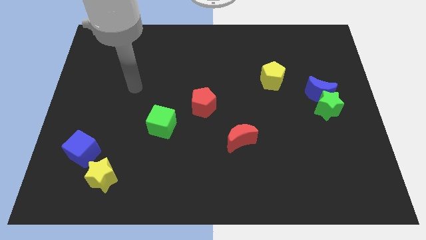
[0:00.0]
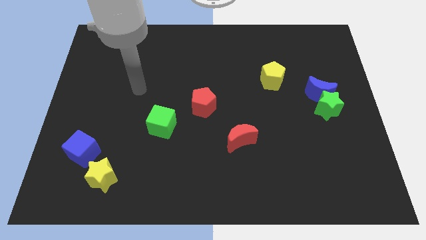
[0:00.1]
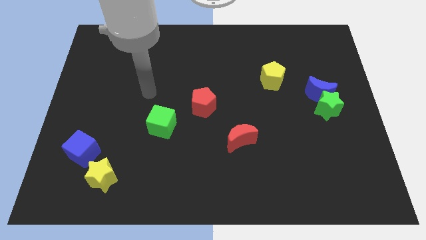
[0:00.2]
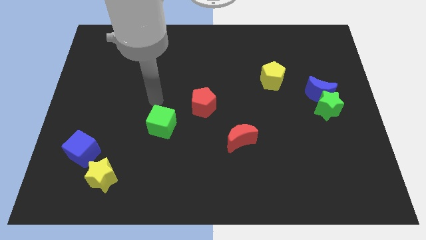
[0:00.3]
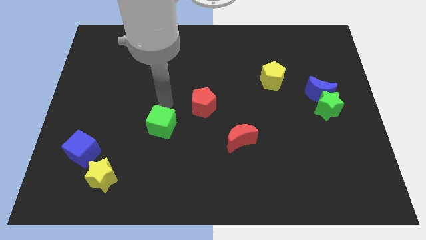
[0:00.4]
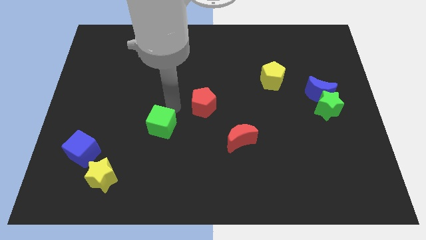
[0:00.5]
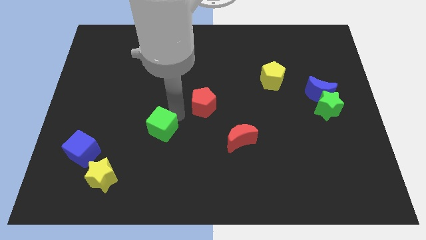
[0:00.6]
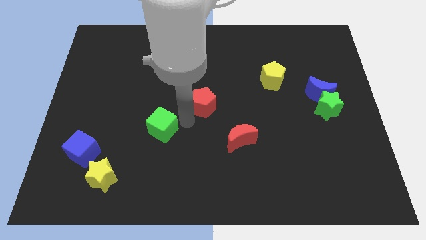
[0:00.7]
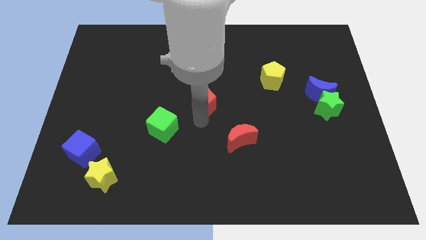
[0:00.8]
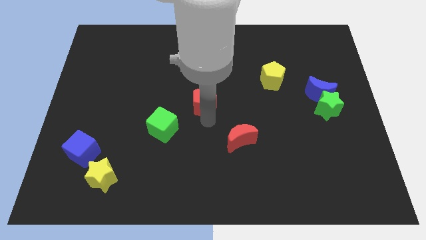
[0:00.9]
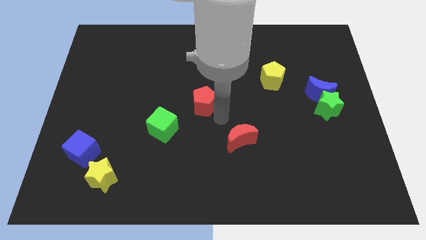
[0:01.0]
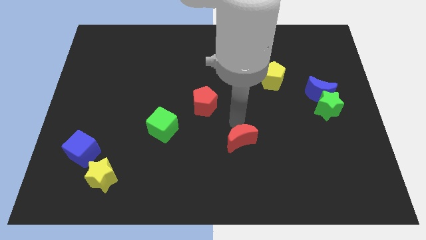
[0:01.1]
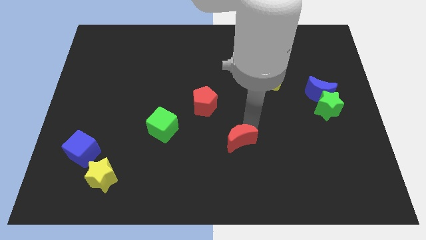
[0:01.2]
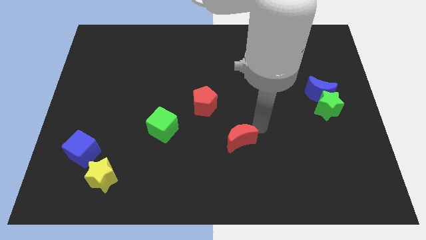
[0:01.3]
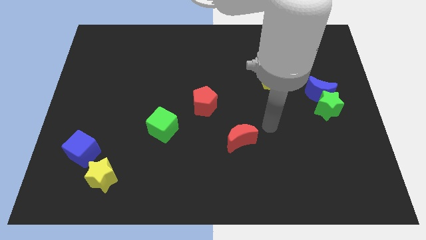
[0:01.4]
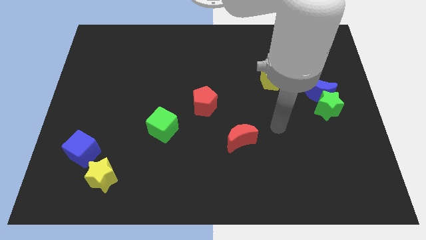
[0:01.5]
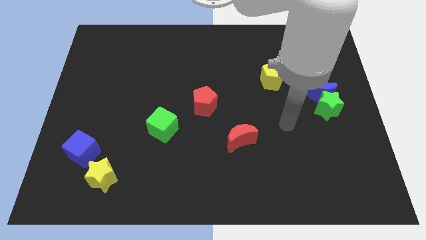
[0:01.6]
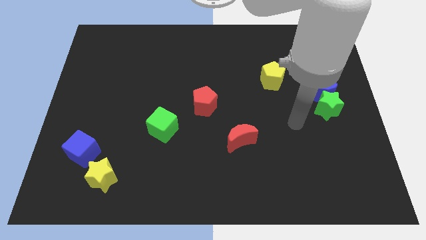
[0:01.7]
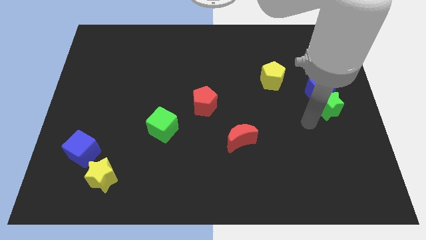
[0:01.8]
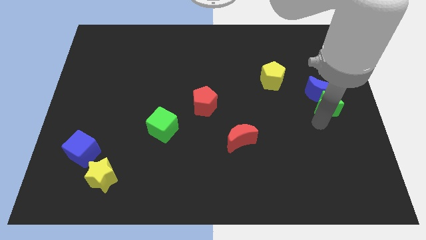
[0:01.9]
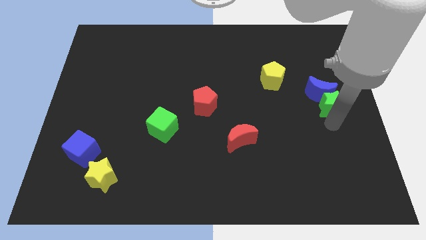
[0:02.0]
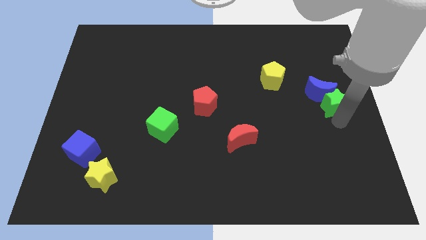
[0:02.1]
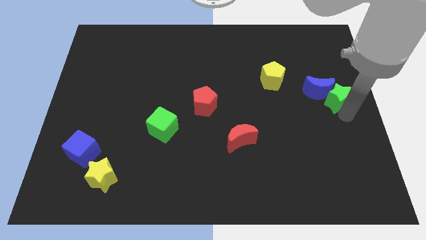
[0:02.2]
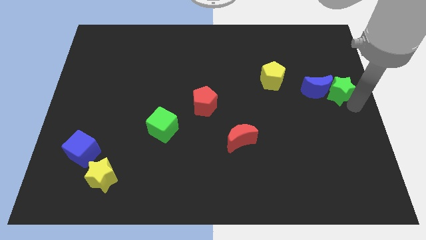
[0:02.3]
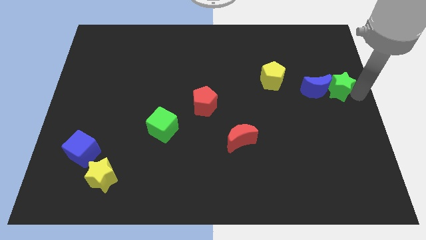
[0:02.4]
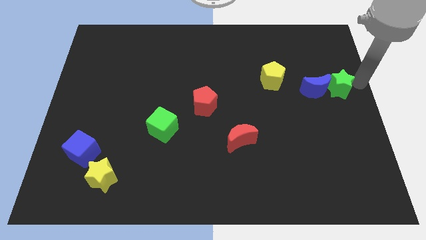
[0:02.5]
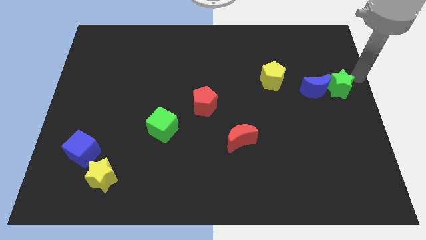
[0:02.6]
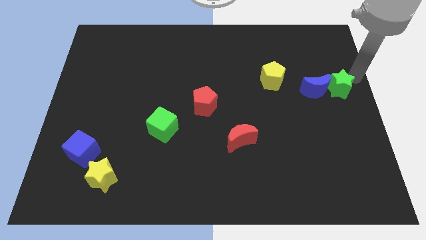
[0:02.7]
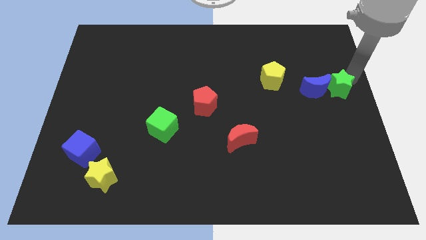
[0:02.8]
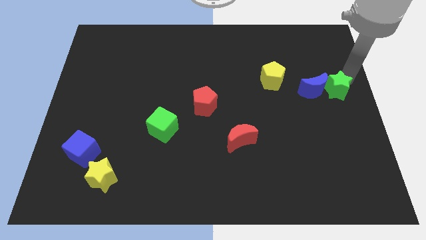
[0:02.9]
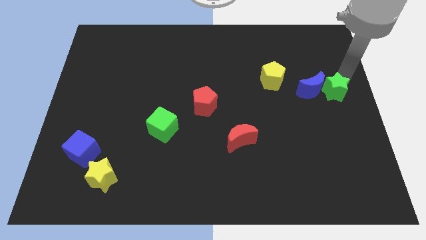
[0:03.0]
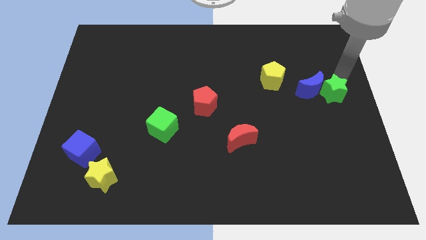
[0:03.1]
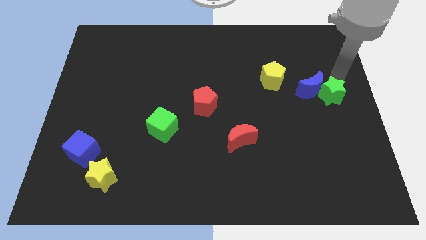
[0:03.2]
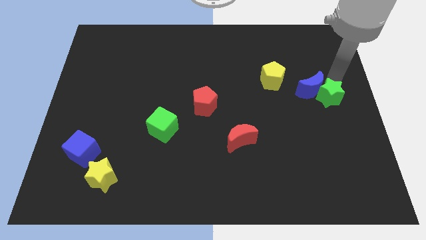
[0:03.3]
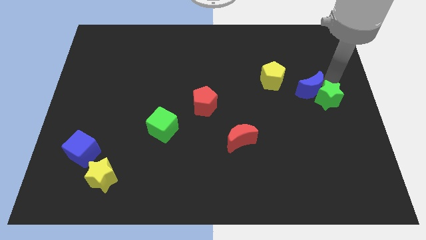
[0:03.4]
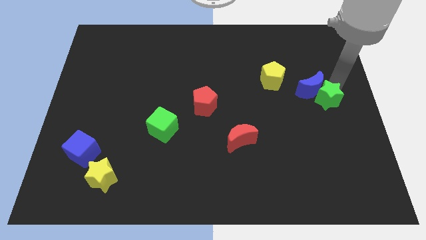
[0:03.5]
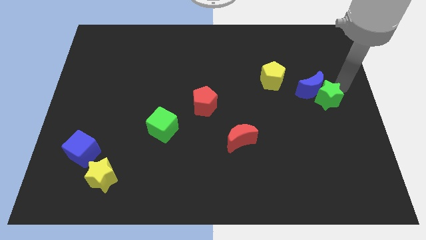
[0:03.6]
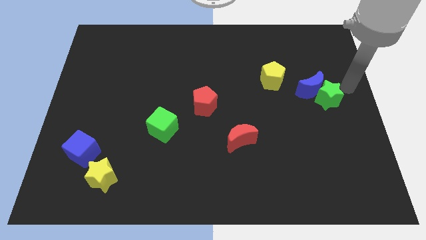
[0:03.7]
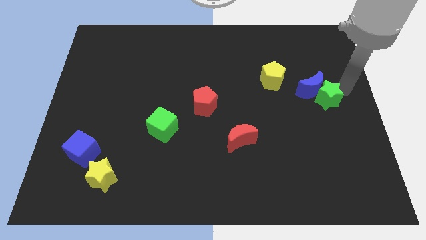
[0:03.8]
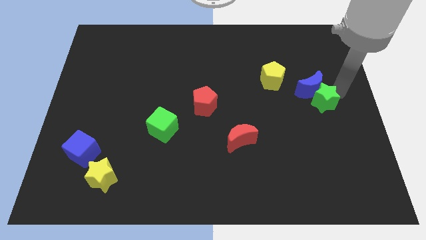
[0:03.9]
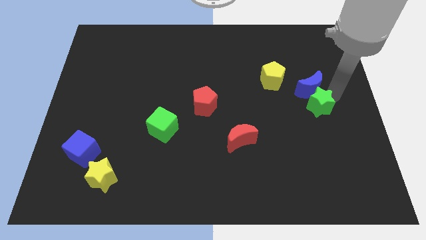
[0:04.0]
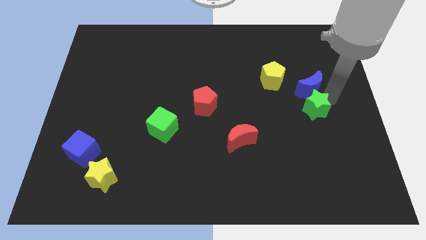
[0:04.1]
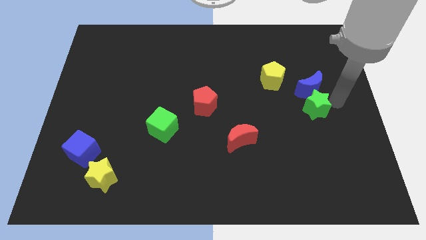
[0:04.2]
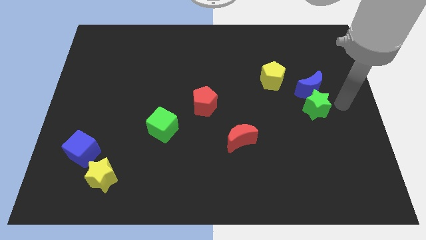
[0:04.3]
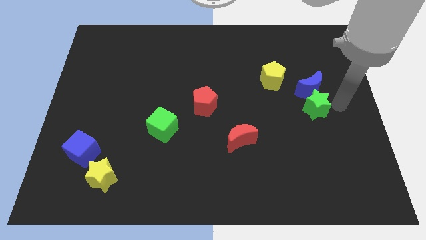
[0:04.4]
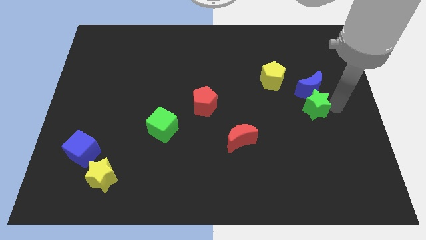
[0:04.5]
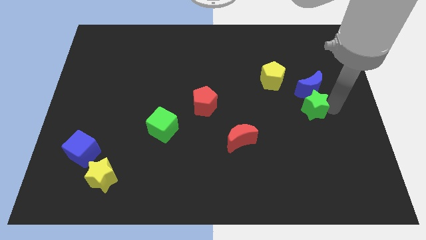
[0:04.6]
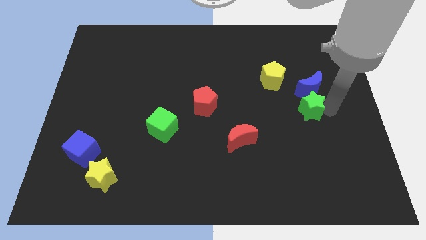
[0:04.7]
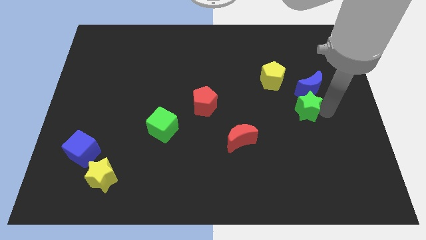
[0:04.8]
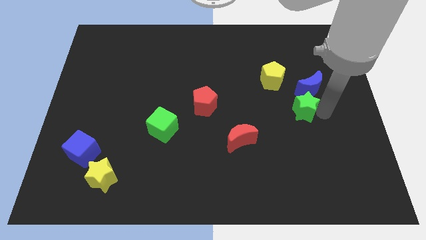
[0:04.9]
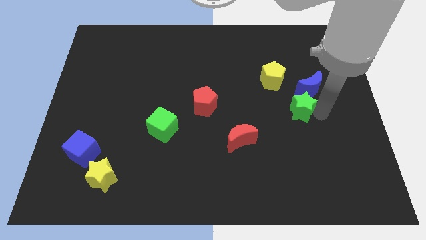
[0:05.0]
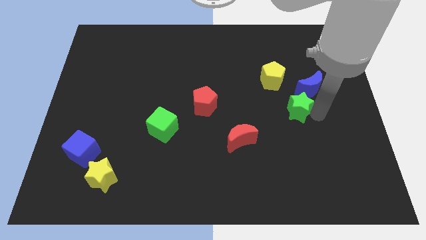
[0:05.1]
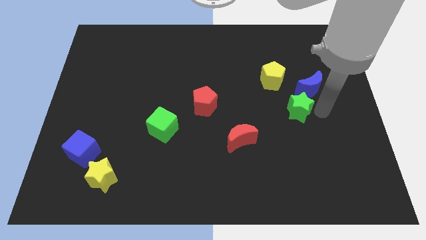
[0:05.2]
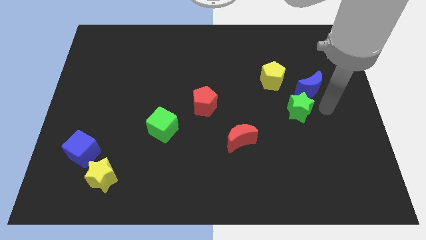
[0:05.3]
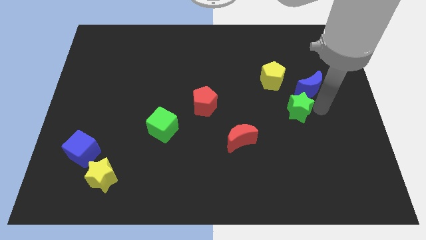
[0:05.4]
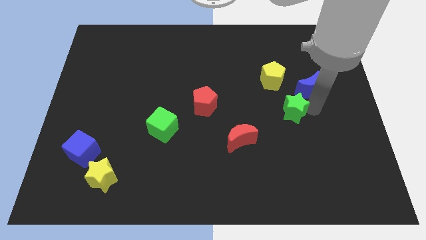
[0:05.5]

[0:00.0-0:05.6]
move the green star to the bottom side of the yellow pentagon
